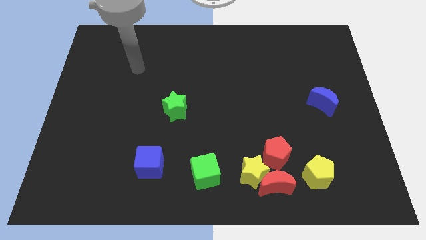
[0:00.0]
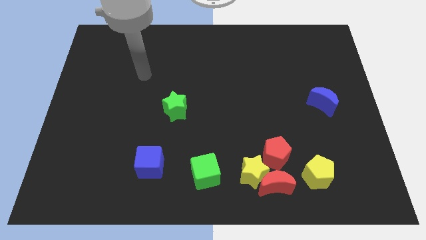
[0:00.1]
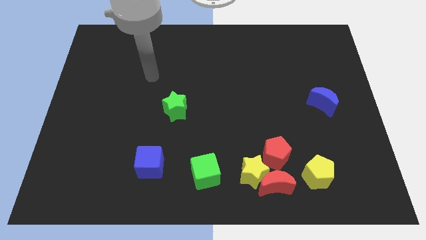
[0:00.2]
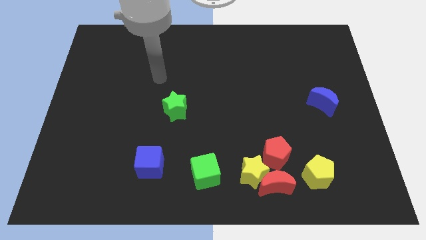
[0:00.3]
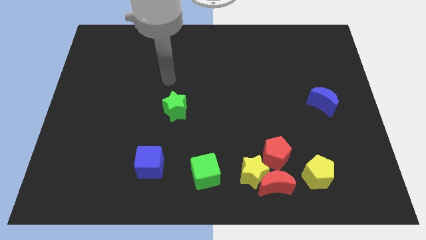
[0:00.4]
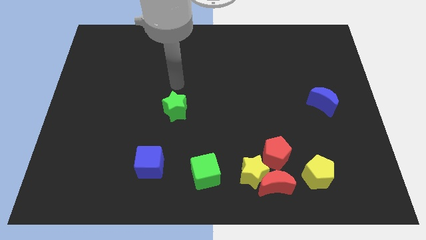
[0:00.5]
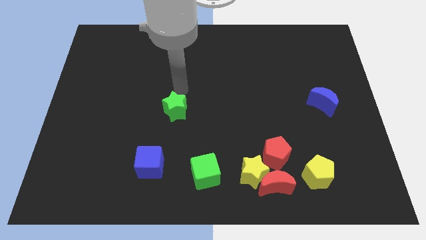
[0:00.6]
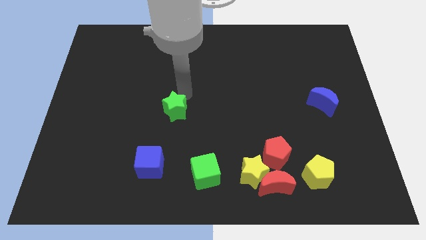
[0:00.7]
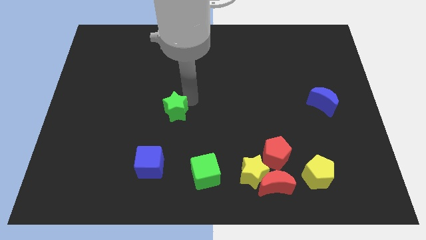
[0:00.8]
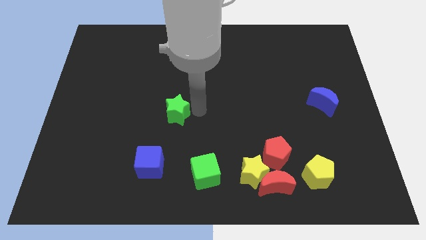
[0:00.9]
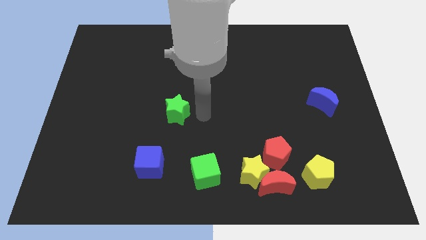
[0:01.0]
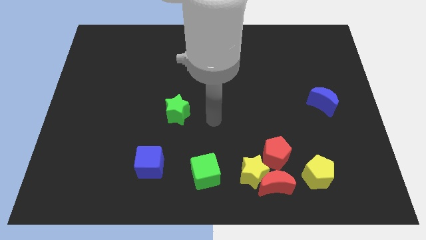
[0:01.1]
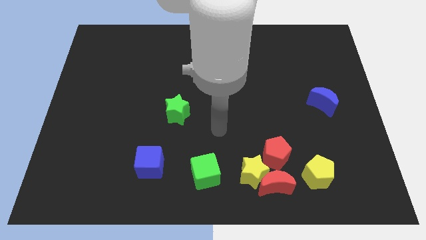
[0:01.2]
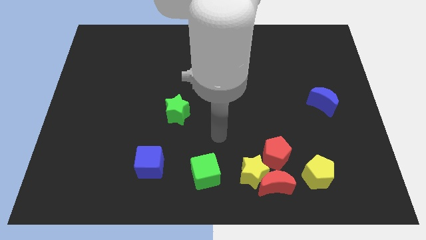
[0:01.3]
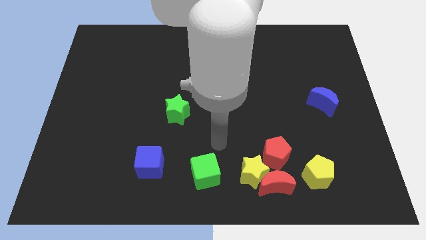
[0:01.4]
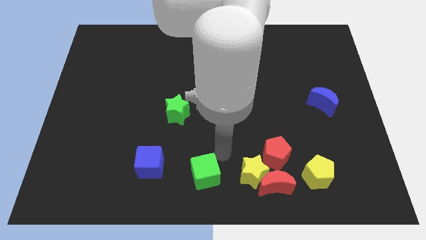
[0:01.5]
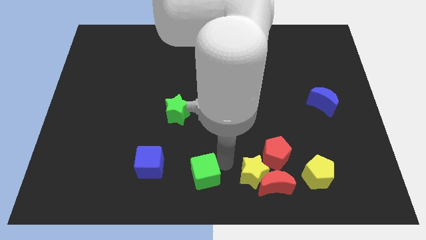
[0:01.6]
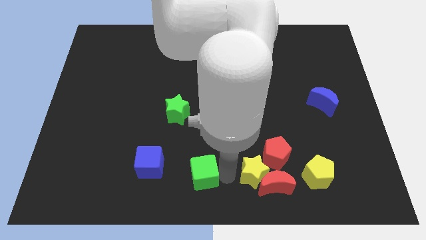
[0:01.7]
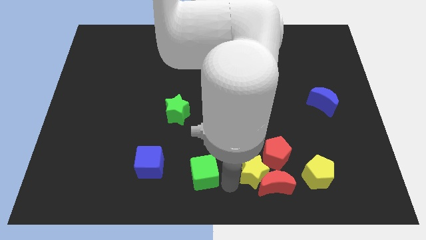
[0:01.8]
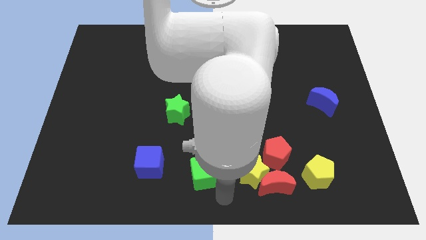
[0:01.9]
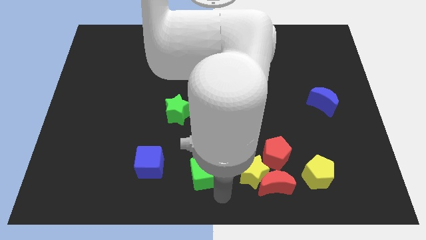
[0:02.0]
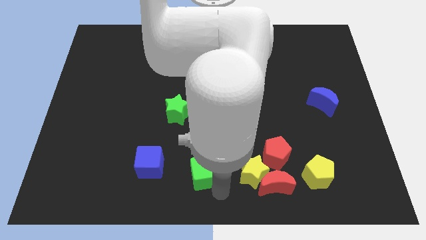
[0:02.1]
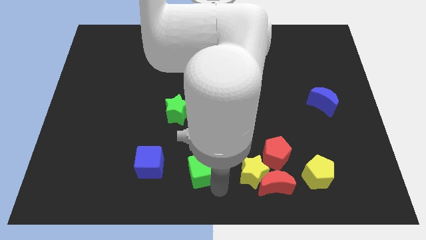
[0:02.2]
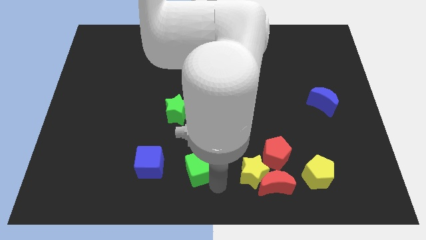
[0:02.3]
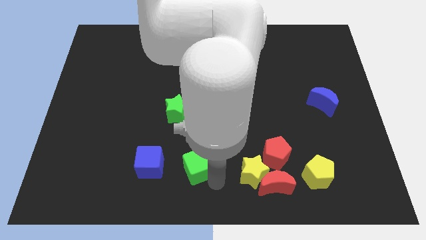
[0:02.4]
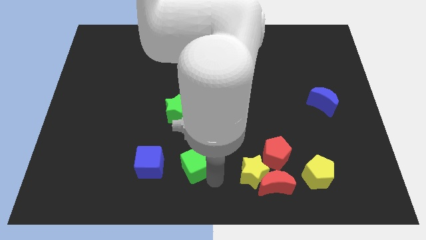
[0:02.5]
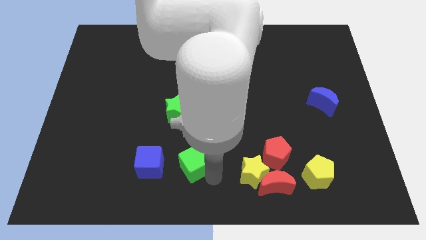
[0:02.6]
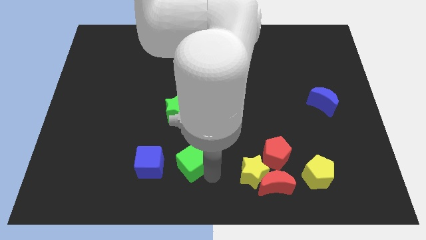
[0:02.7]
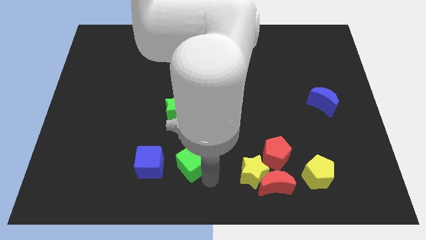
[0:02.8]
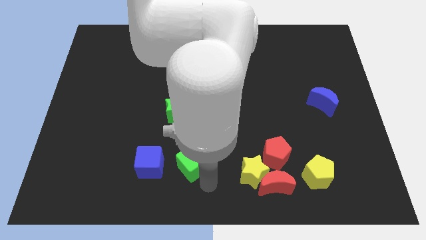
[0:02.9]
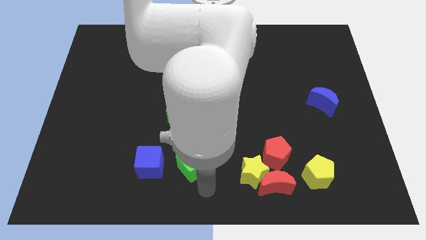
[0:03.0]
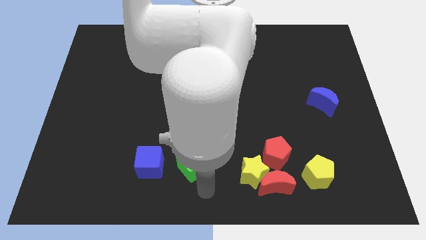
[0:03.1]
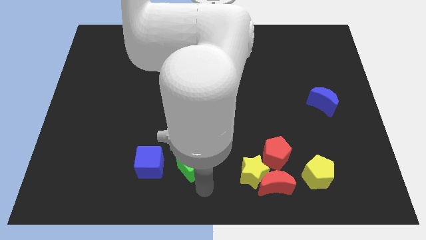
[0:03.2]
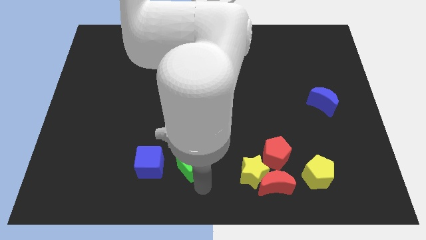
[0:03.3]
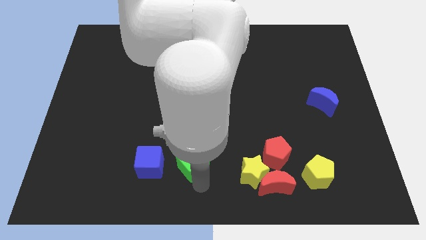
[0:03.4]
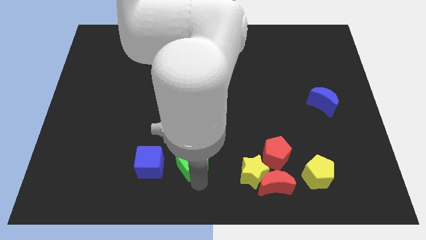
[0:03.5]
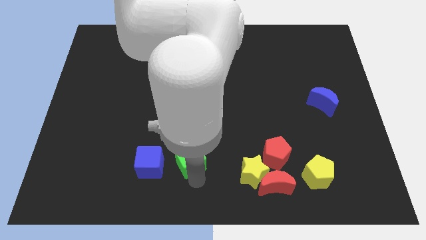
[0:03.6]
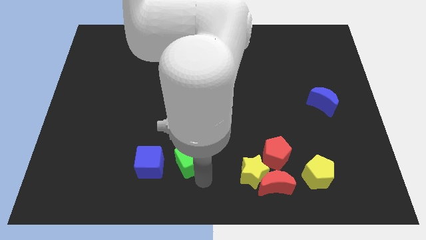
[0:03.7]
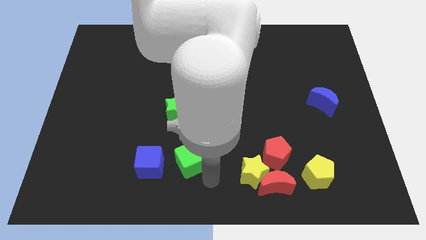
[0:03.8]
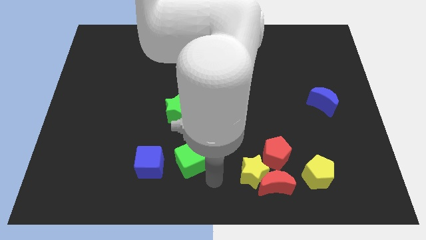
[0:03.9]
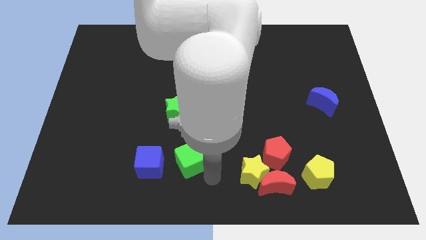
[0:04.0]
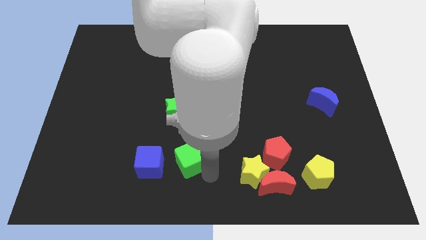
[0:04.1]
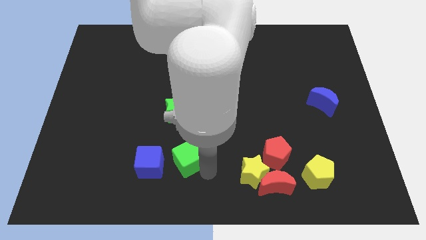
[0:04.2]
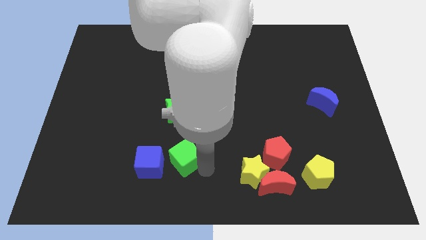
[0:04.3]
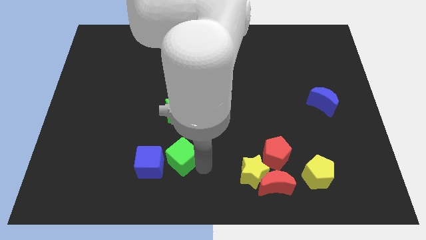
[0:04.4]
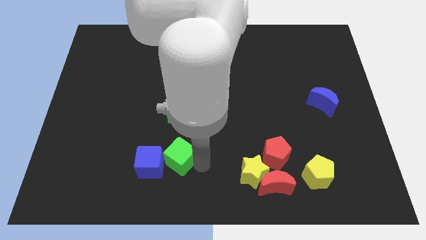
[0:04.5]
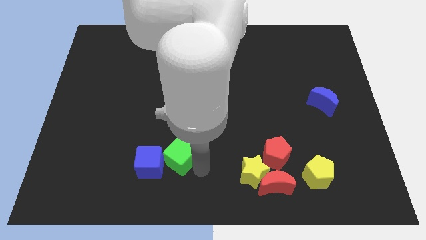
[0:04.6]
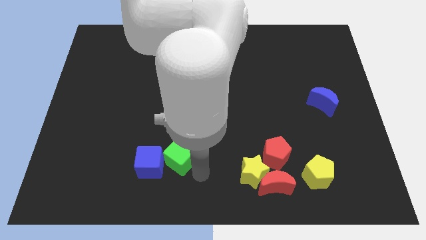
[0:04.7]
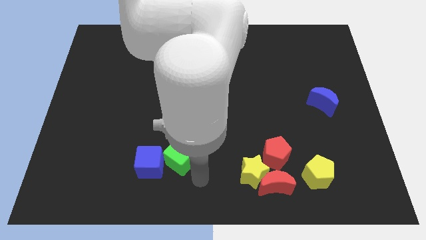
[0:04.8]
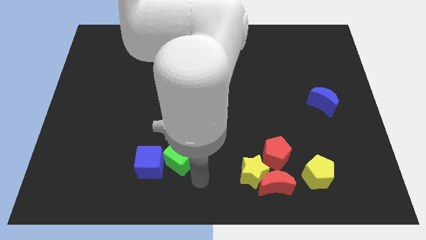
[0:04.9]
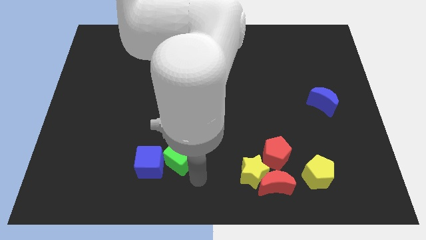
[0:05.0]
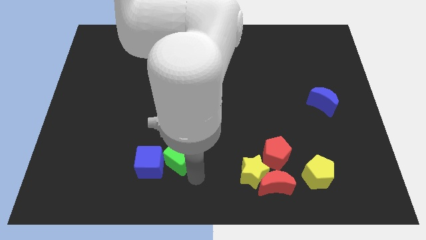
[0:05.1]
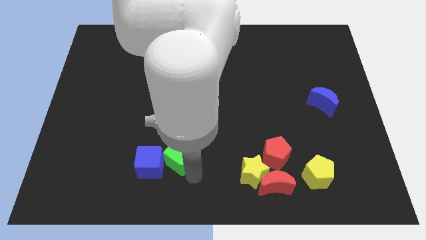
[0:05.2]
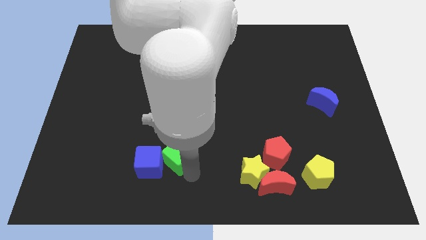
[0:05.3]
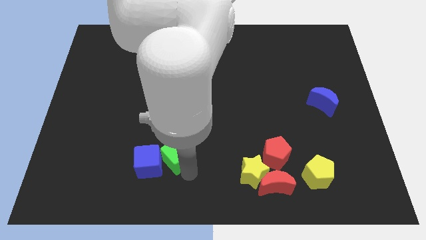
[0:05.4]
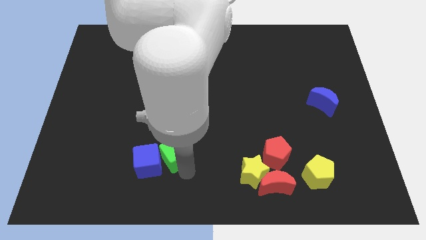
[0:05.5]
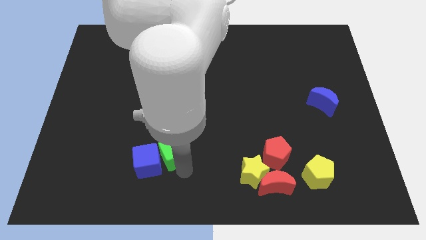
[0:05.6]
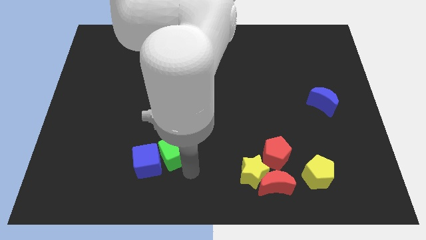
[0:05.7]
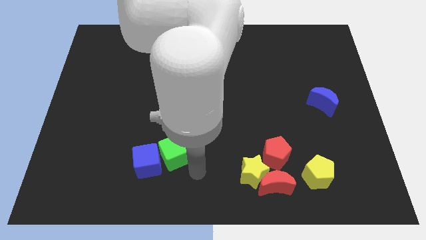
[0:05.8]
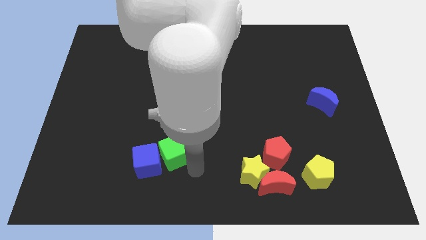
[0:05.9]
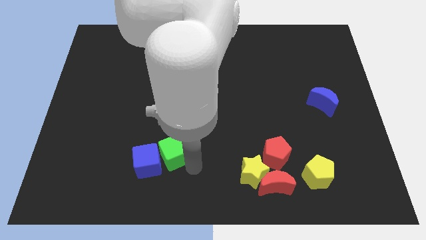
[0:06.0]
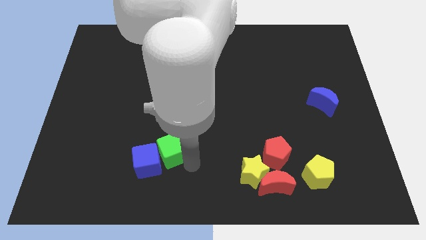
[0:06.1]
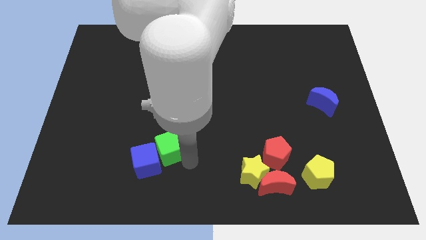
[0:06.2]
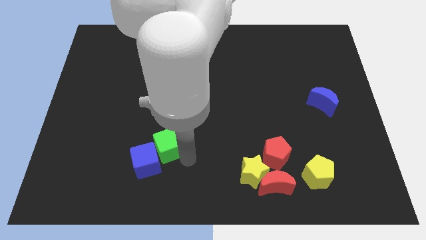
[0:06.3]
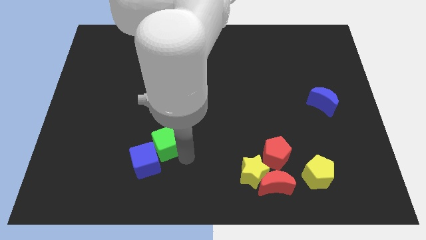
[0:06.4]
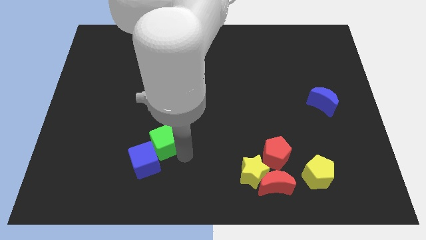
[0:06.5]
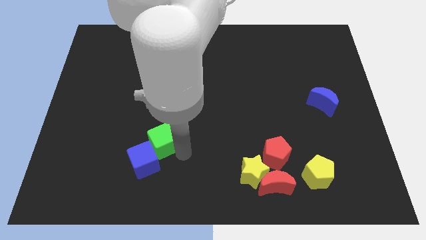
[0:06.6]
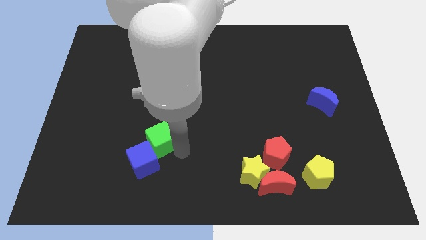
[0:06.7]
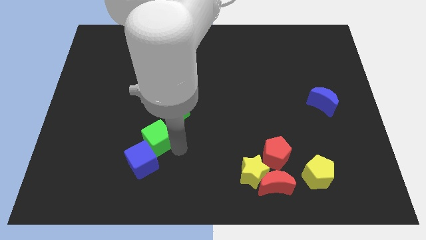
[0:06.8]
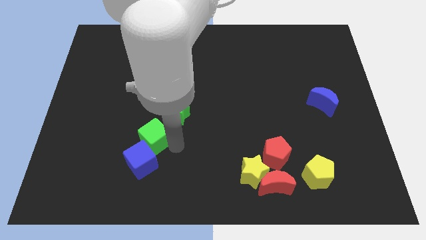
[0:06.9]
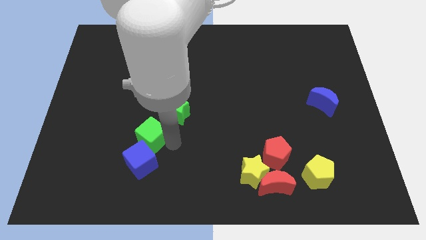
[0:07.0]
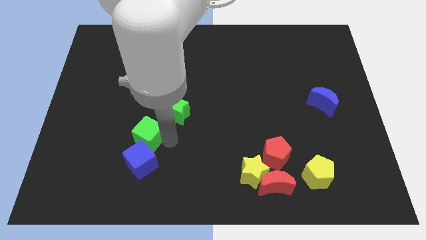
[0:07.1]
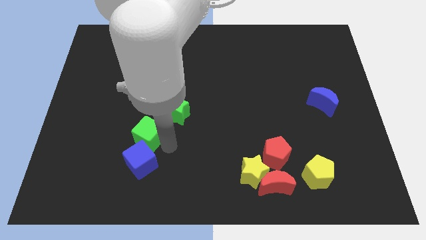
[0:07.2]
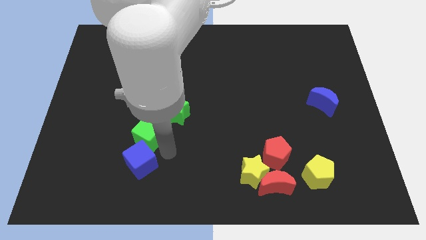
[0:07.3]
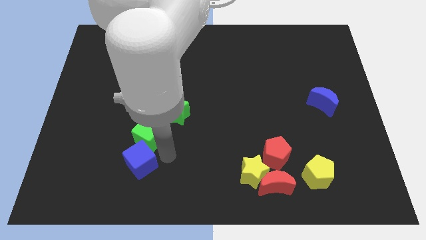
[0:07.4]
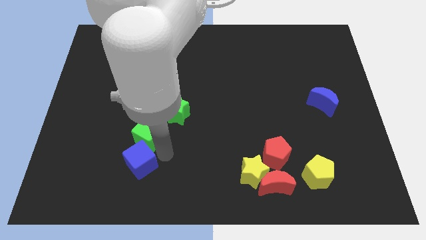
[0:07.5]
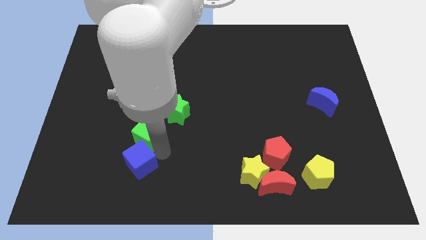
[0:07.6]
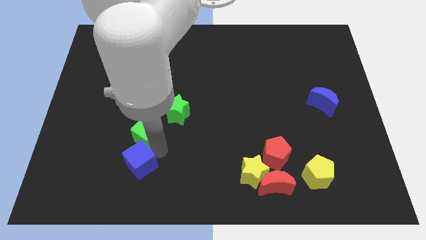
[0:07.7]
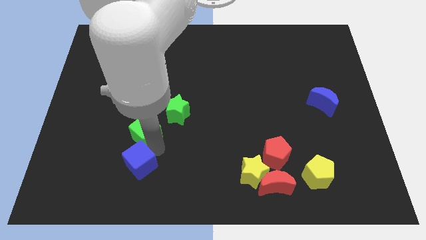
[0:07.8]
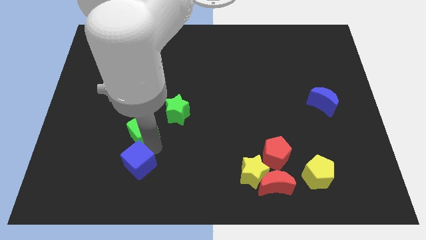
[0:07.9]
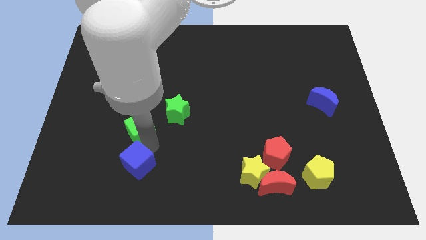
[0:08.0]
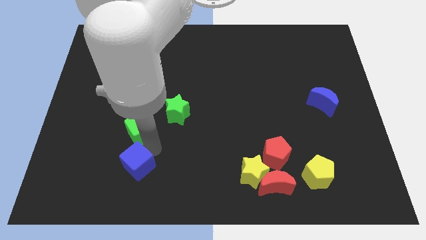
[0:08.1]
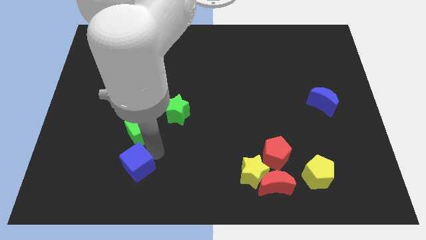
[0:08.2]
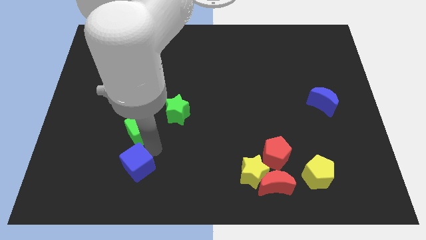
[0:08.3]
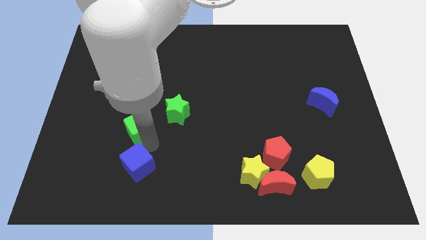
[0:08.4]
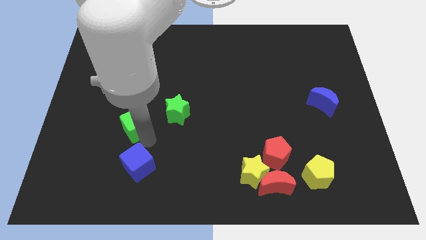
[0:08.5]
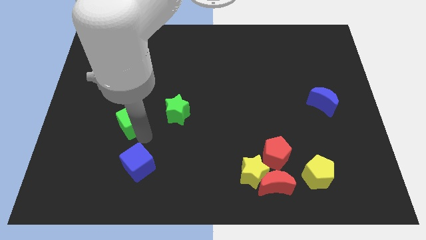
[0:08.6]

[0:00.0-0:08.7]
move the green cube diagonally upwards and left
